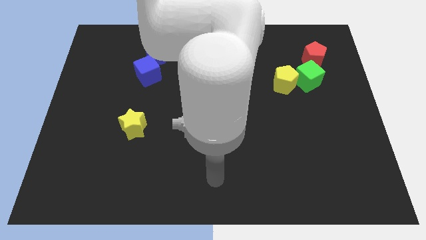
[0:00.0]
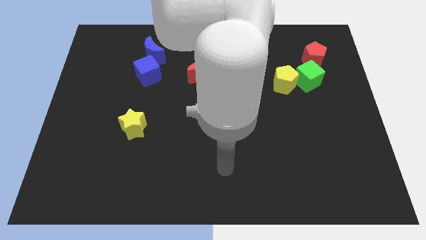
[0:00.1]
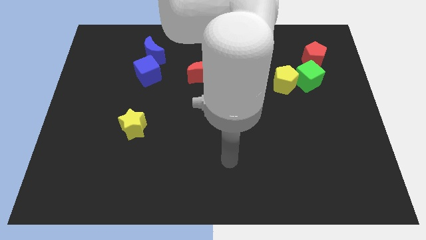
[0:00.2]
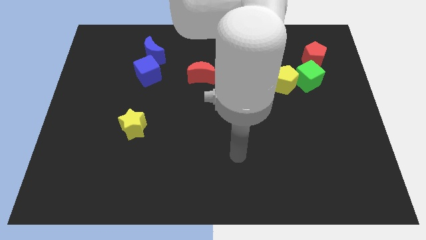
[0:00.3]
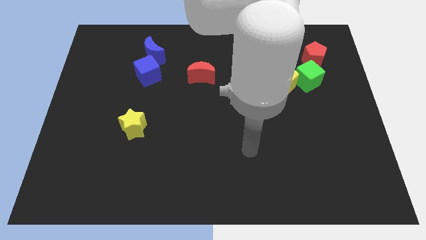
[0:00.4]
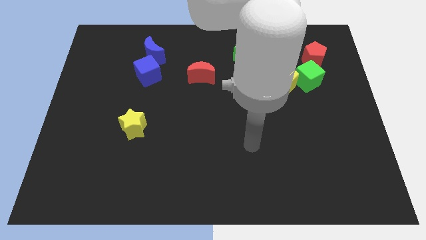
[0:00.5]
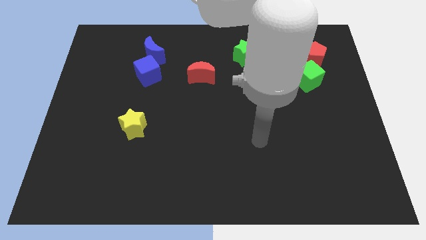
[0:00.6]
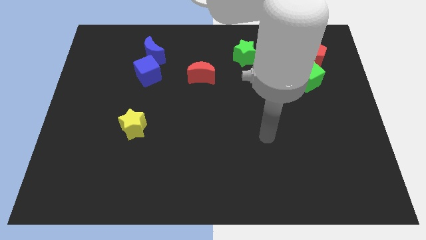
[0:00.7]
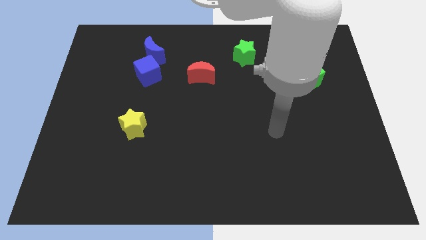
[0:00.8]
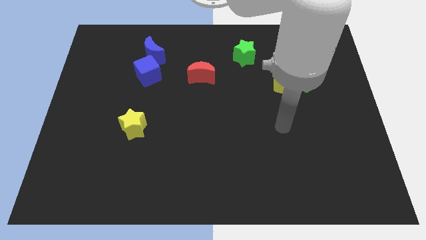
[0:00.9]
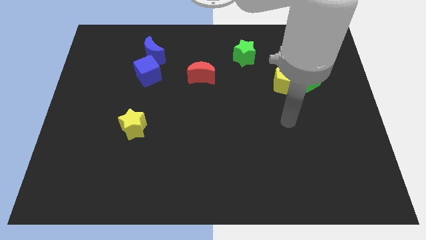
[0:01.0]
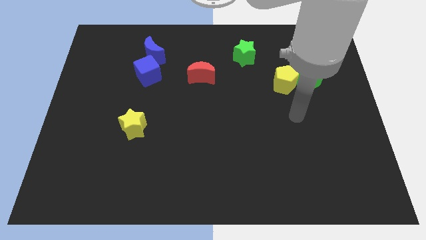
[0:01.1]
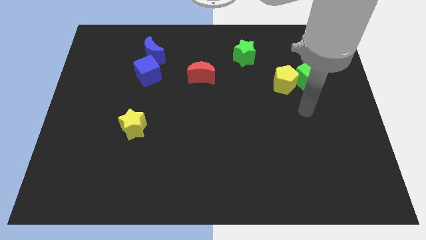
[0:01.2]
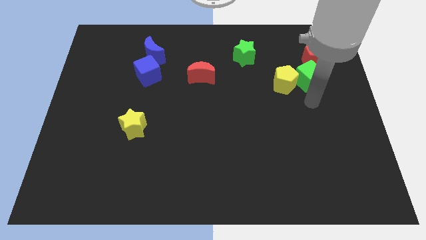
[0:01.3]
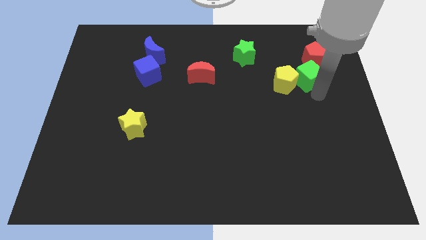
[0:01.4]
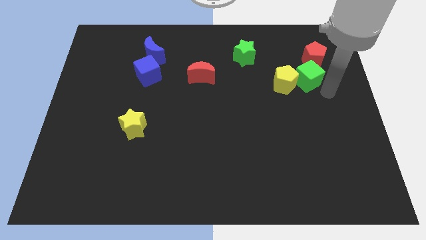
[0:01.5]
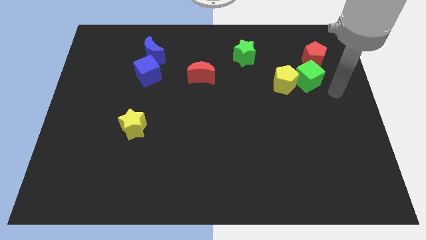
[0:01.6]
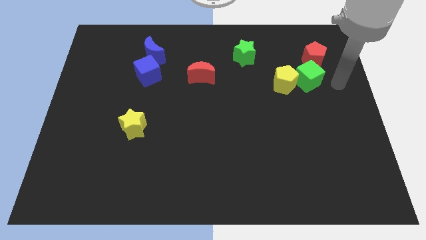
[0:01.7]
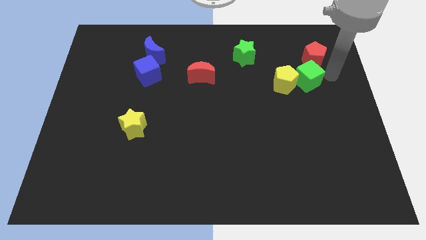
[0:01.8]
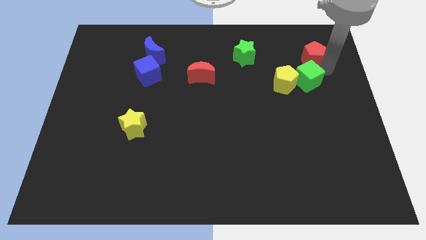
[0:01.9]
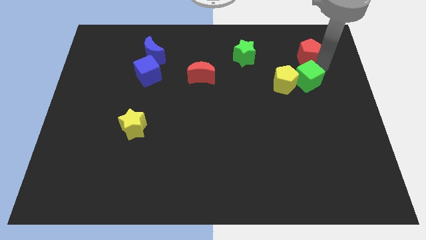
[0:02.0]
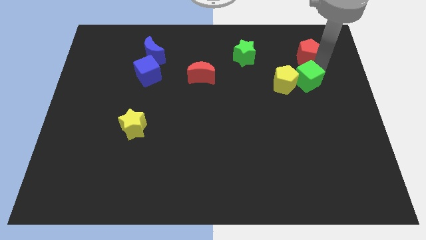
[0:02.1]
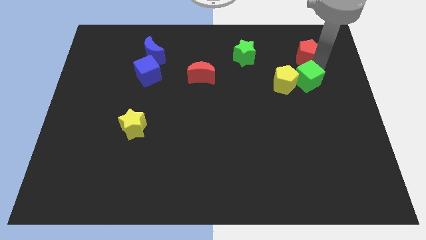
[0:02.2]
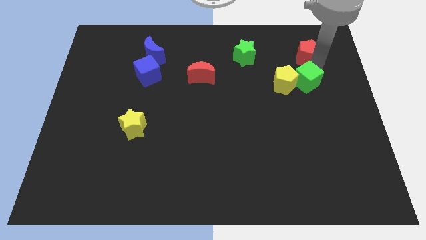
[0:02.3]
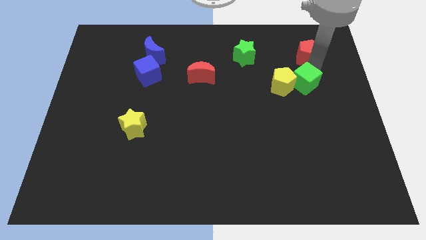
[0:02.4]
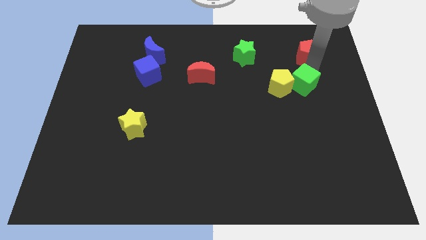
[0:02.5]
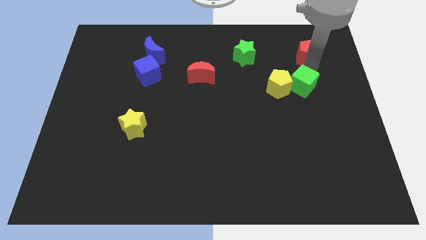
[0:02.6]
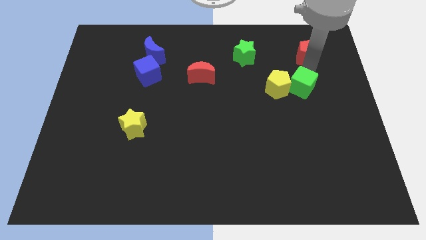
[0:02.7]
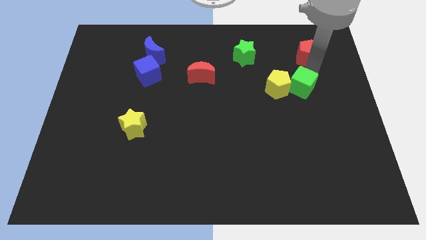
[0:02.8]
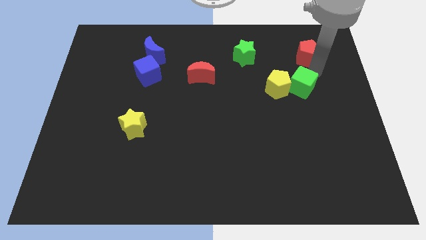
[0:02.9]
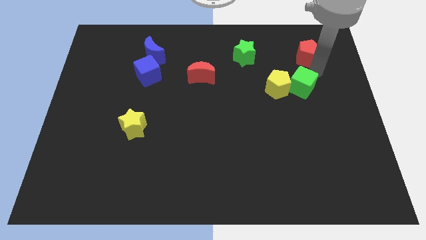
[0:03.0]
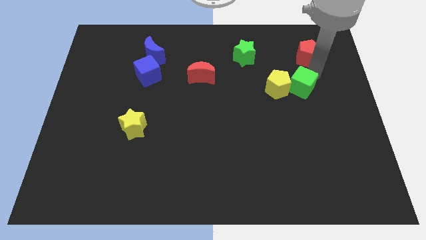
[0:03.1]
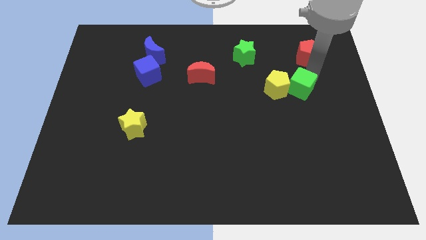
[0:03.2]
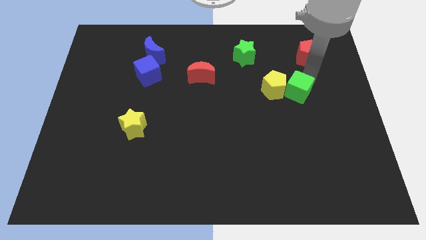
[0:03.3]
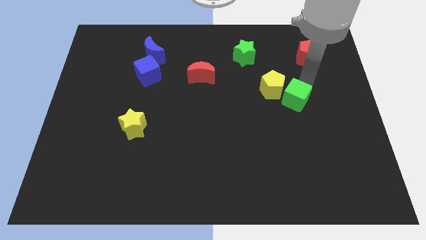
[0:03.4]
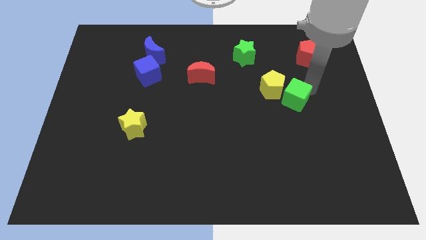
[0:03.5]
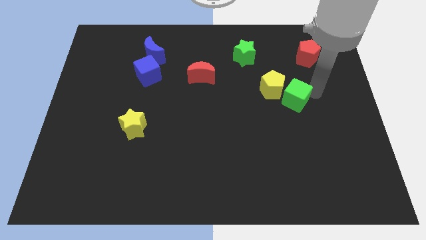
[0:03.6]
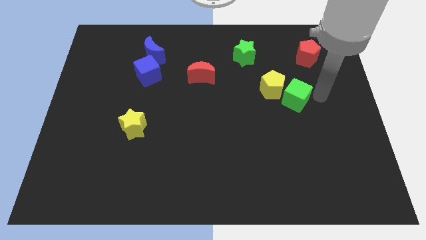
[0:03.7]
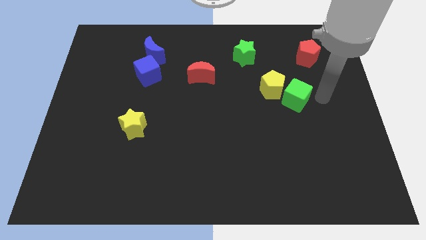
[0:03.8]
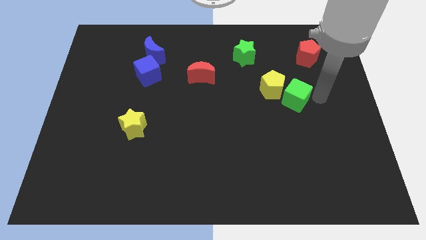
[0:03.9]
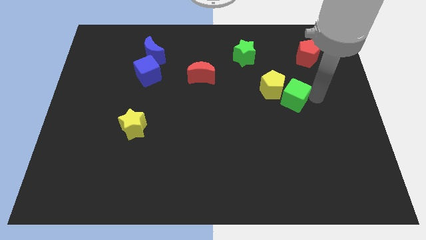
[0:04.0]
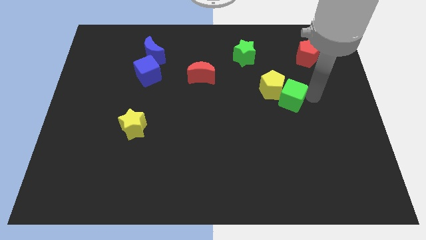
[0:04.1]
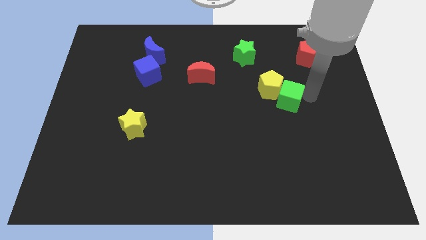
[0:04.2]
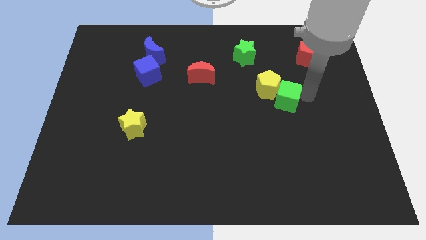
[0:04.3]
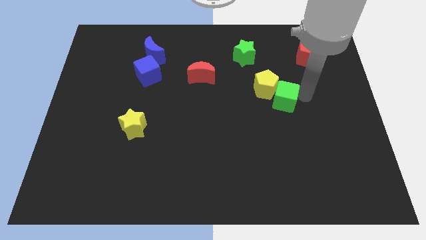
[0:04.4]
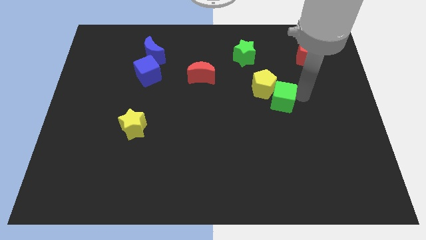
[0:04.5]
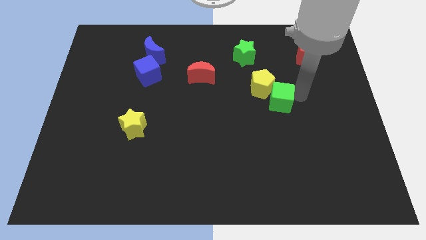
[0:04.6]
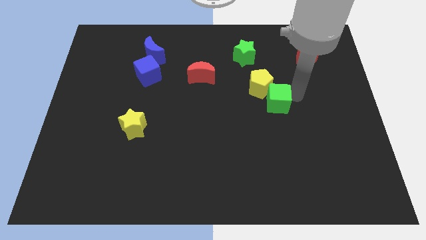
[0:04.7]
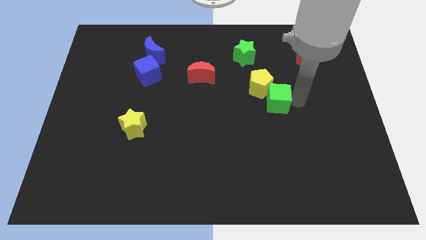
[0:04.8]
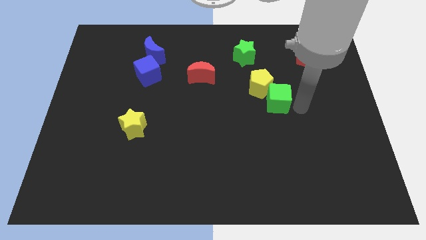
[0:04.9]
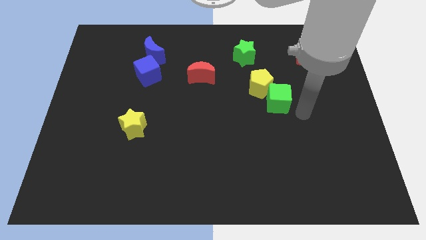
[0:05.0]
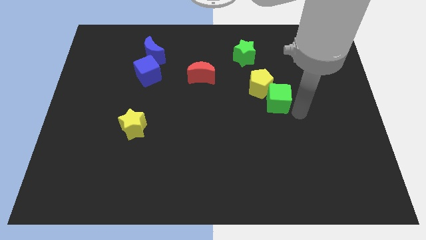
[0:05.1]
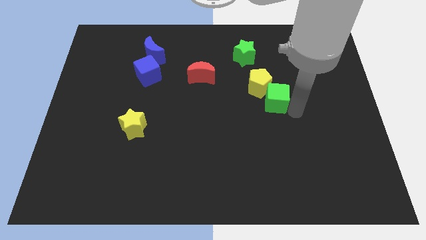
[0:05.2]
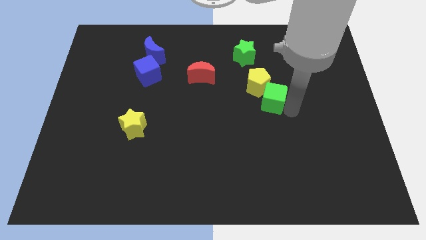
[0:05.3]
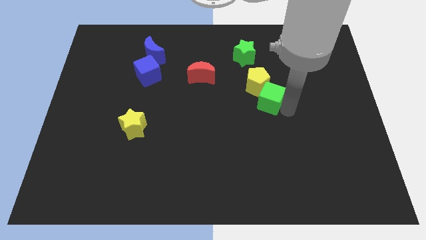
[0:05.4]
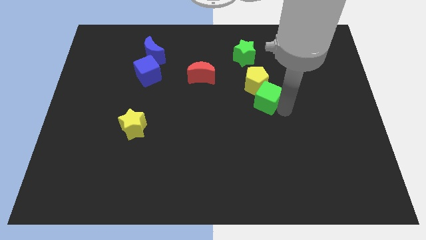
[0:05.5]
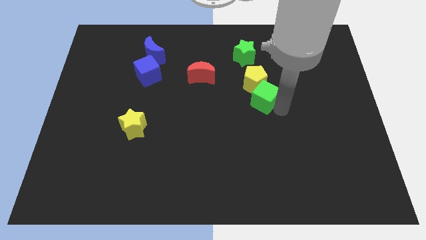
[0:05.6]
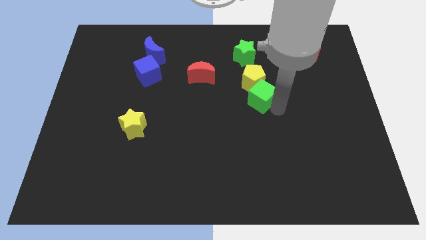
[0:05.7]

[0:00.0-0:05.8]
move the green cube to the bottom side of the green star

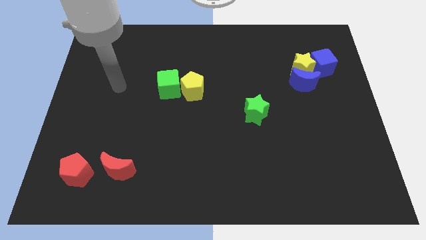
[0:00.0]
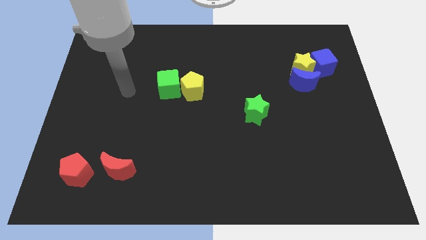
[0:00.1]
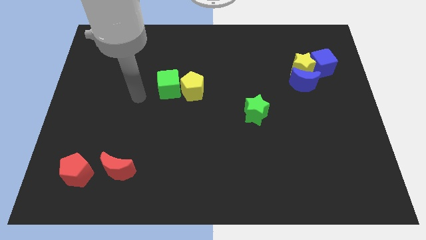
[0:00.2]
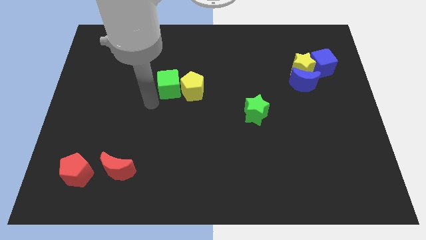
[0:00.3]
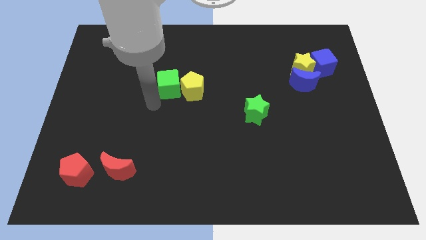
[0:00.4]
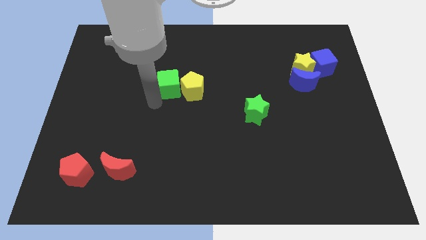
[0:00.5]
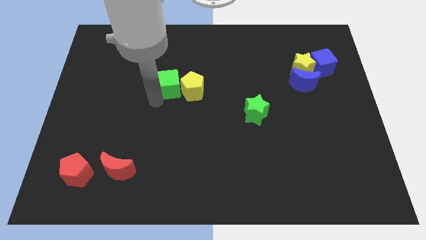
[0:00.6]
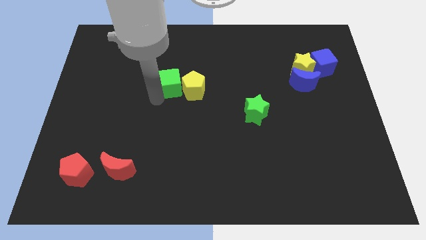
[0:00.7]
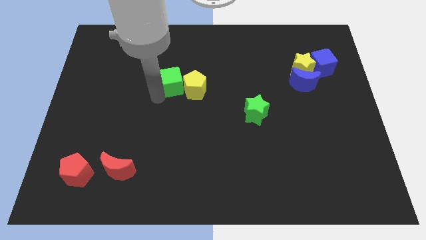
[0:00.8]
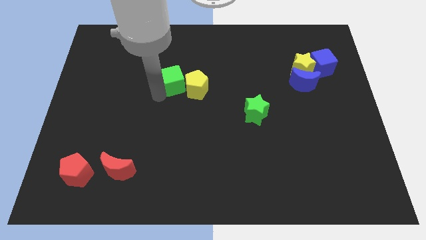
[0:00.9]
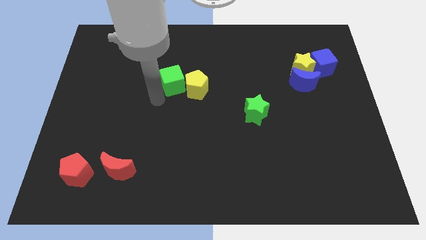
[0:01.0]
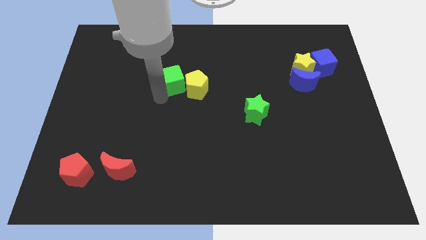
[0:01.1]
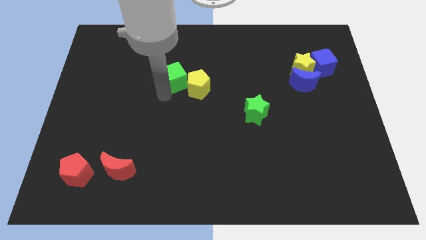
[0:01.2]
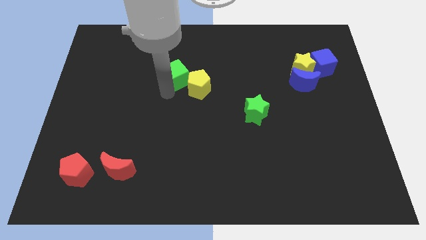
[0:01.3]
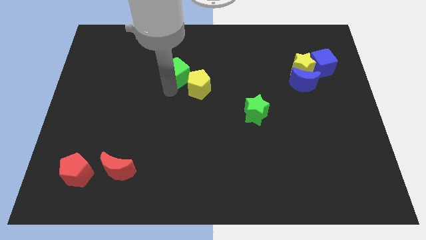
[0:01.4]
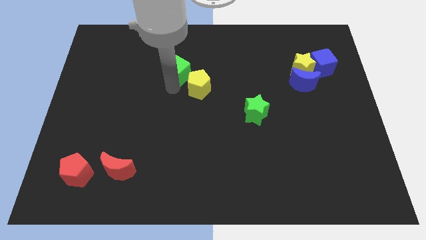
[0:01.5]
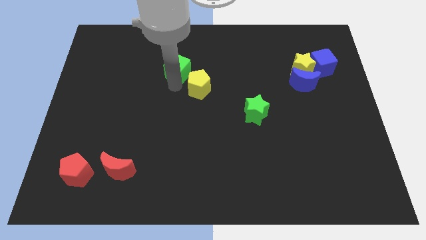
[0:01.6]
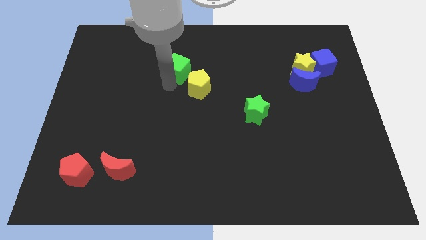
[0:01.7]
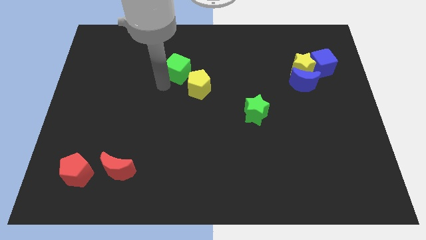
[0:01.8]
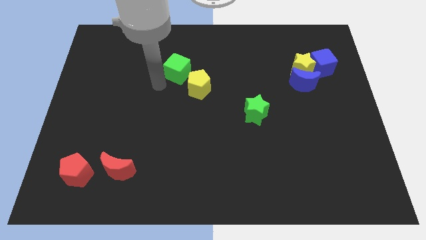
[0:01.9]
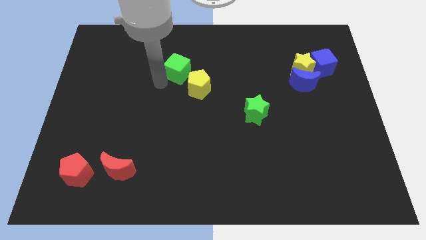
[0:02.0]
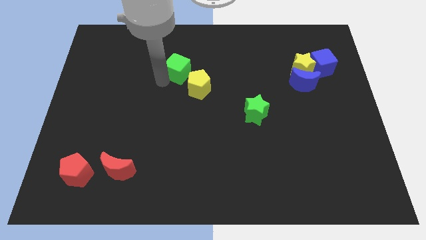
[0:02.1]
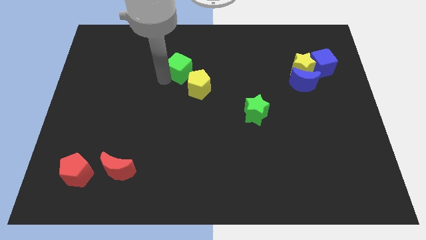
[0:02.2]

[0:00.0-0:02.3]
slide the green cube to the top of the yellow pentagon
